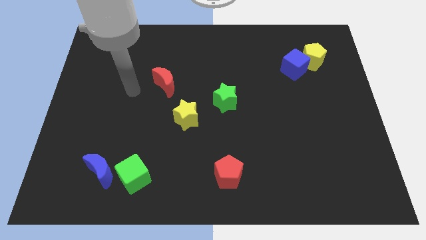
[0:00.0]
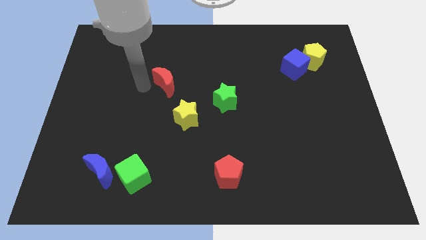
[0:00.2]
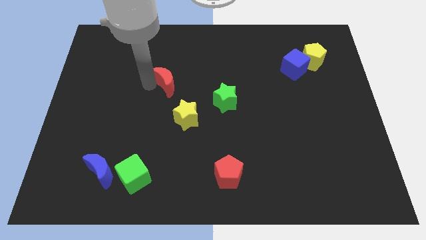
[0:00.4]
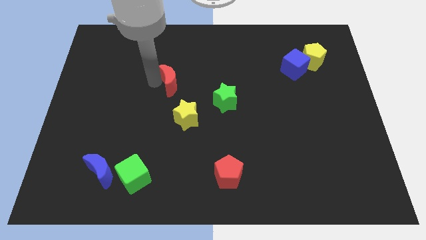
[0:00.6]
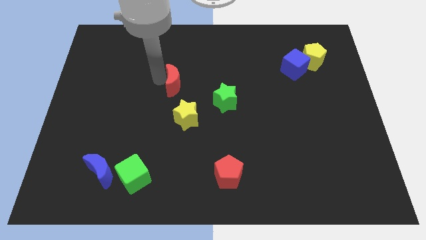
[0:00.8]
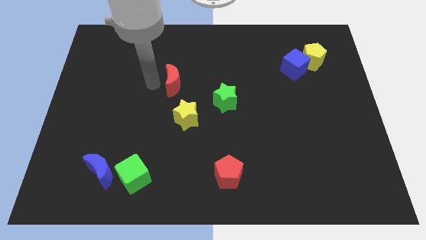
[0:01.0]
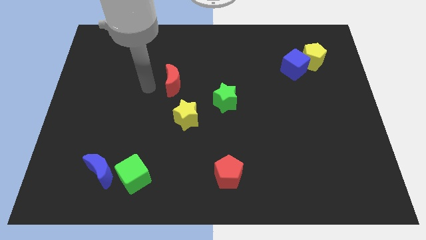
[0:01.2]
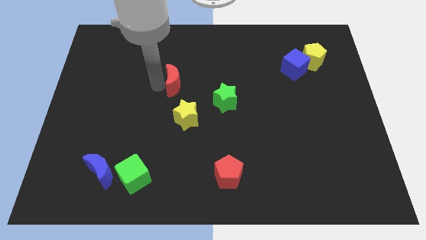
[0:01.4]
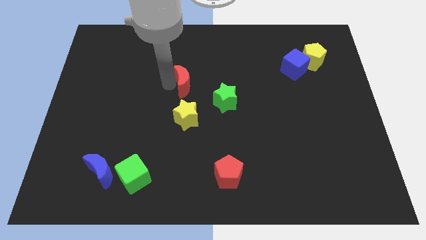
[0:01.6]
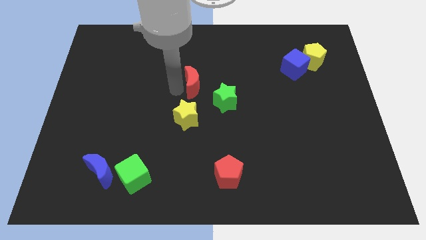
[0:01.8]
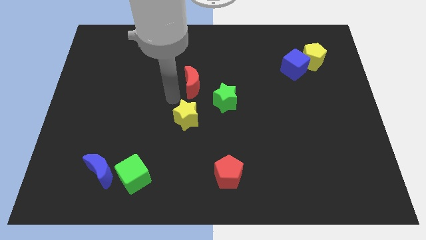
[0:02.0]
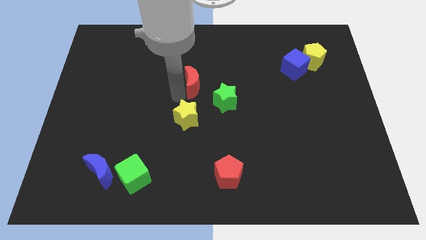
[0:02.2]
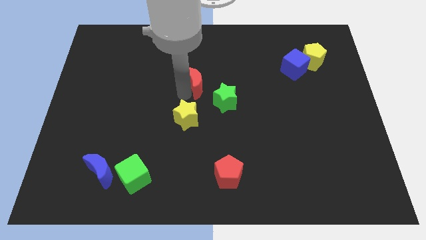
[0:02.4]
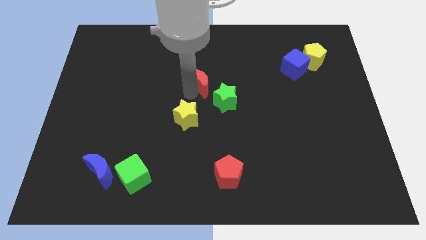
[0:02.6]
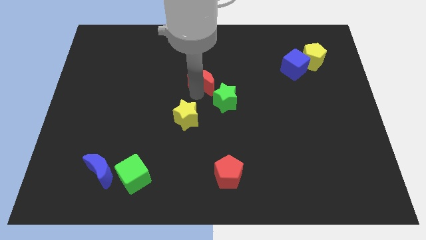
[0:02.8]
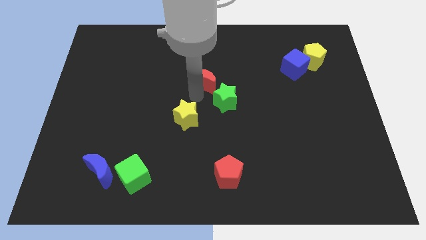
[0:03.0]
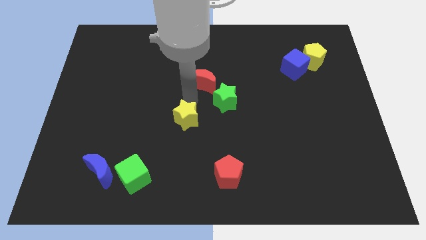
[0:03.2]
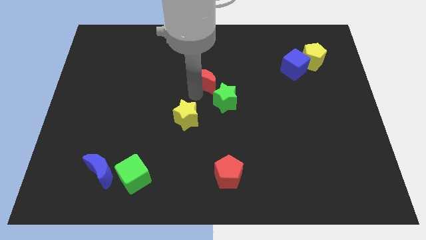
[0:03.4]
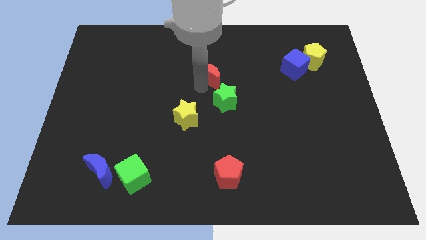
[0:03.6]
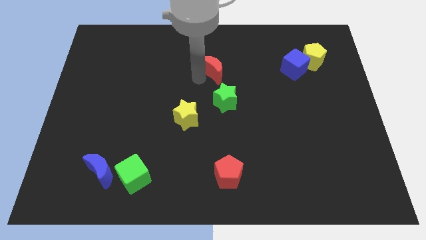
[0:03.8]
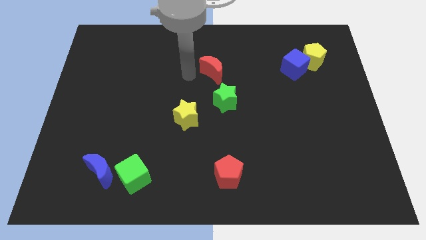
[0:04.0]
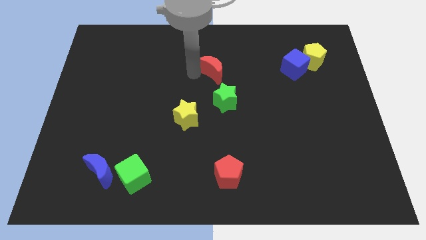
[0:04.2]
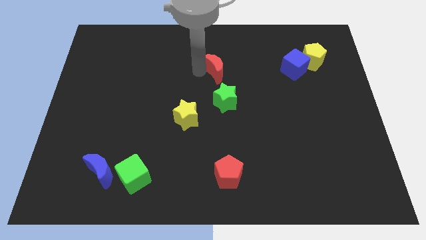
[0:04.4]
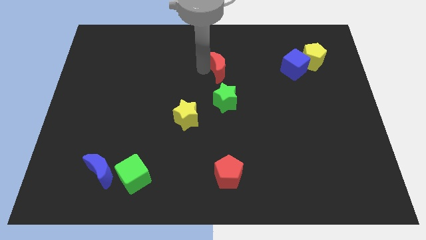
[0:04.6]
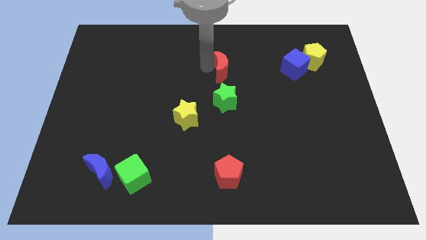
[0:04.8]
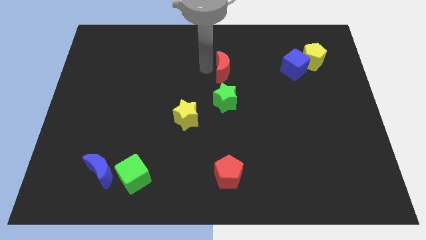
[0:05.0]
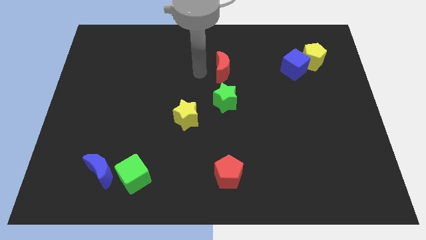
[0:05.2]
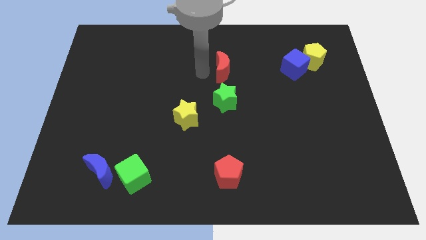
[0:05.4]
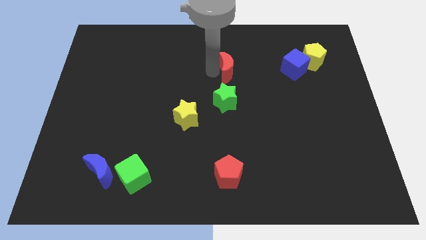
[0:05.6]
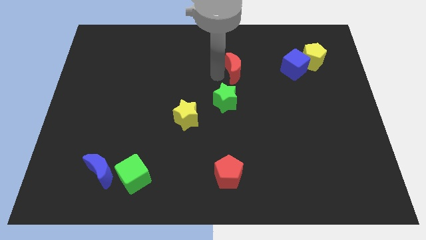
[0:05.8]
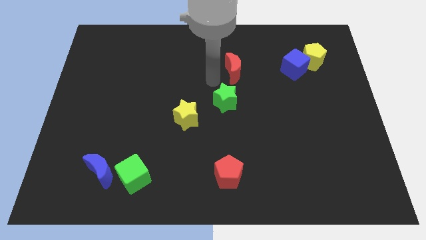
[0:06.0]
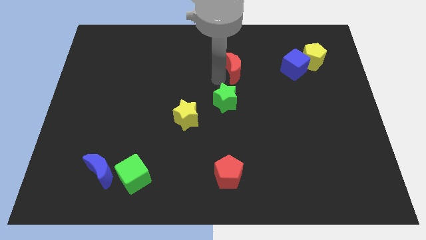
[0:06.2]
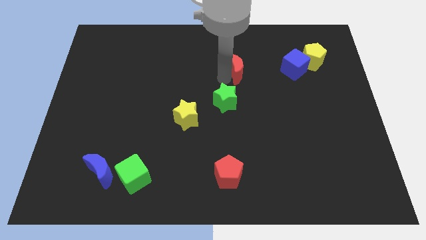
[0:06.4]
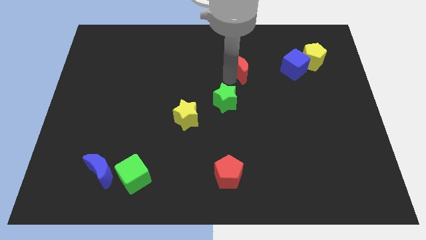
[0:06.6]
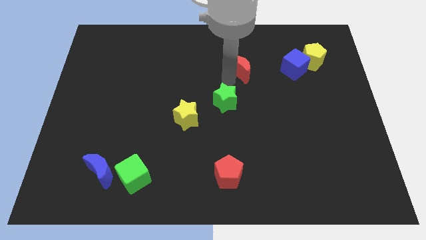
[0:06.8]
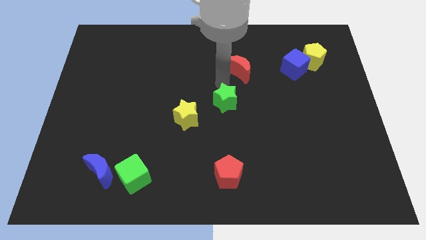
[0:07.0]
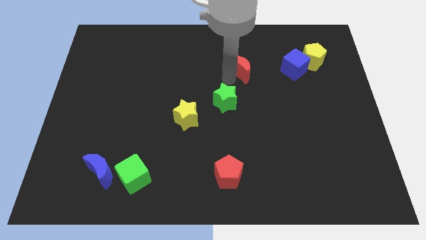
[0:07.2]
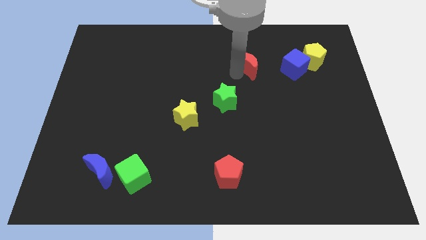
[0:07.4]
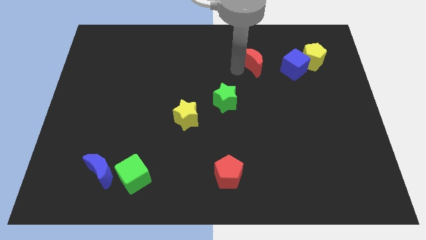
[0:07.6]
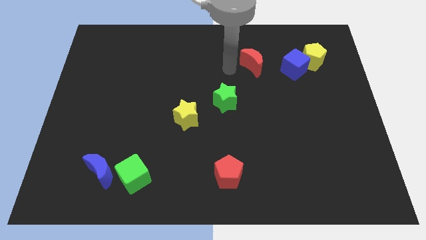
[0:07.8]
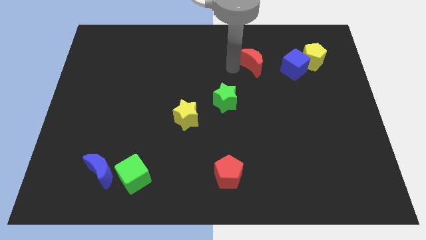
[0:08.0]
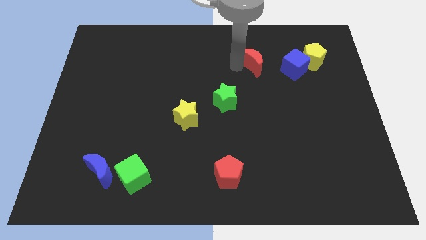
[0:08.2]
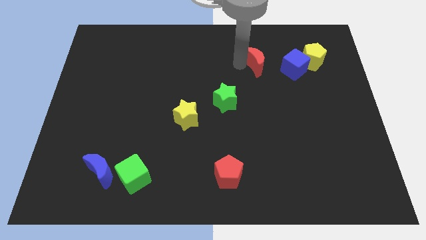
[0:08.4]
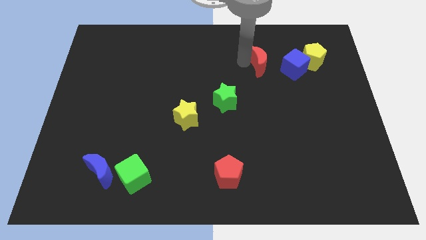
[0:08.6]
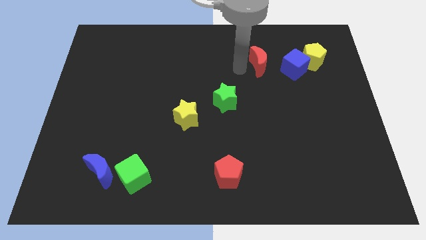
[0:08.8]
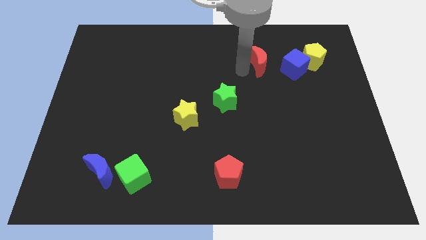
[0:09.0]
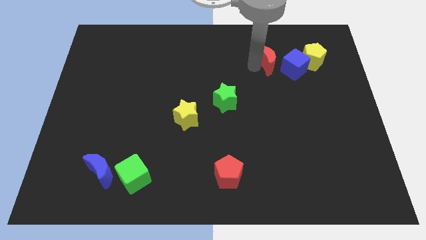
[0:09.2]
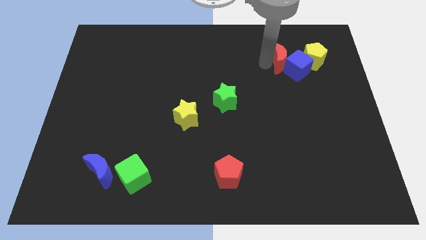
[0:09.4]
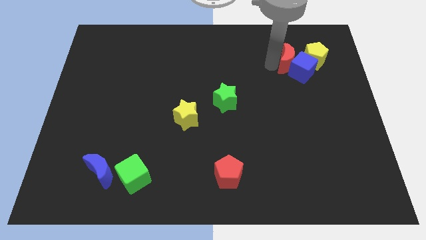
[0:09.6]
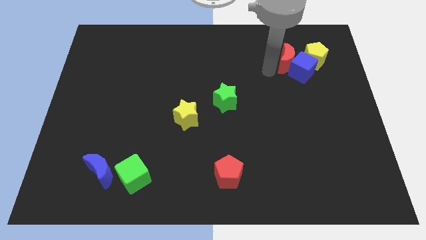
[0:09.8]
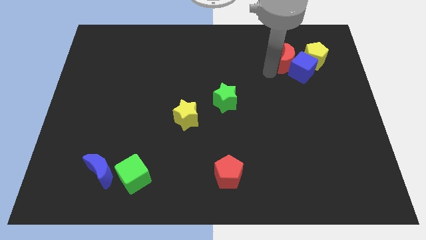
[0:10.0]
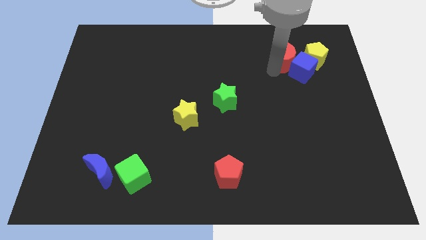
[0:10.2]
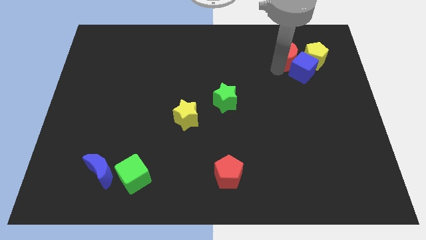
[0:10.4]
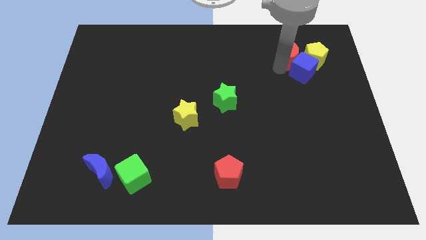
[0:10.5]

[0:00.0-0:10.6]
put the red moon towards the yellow pentagon

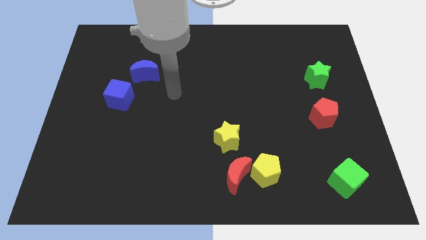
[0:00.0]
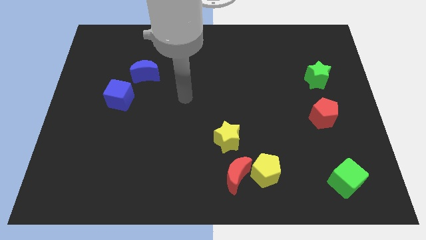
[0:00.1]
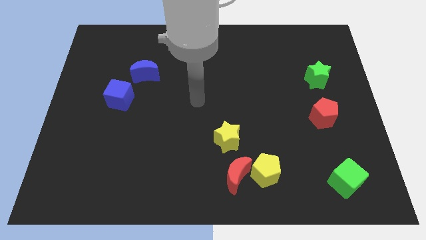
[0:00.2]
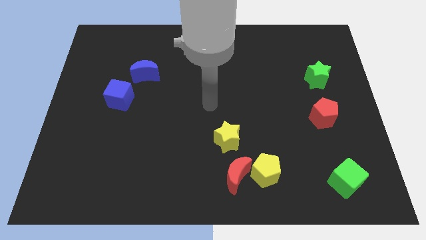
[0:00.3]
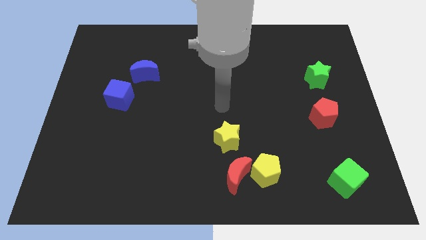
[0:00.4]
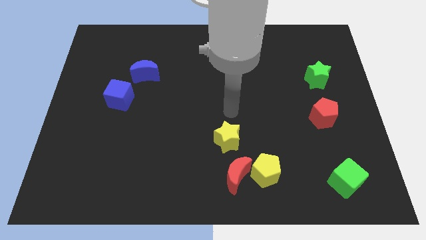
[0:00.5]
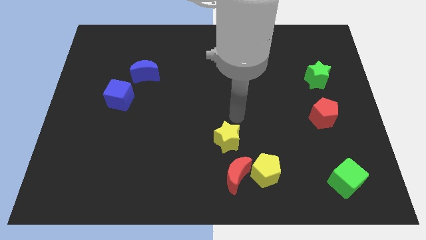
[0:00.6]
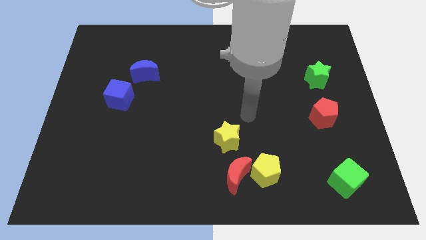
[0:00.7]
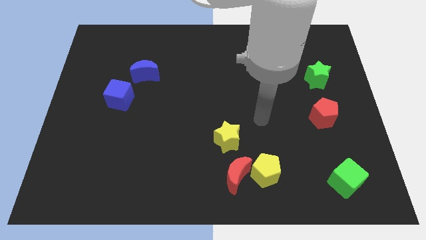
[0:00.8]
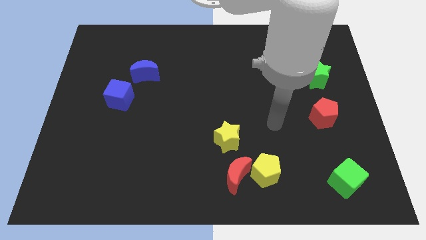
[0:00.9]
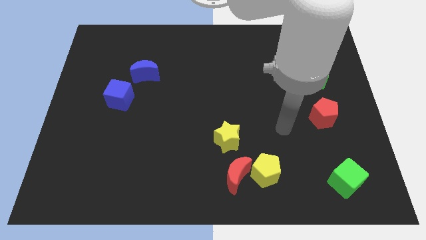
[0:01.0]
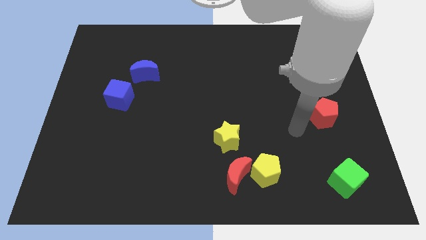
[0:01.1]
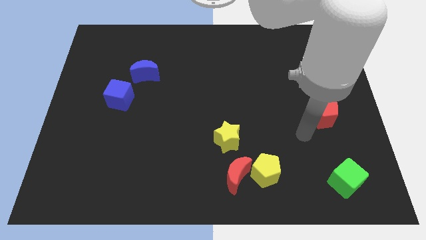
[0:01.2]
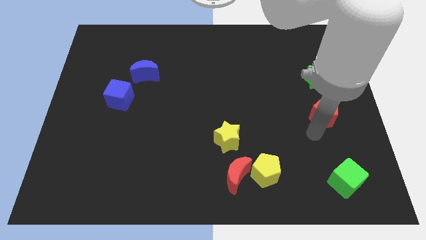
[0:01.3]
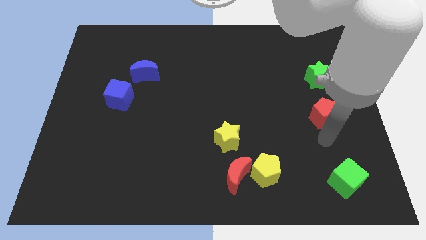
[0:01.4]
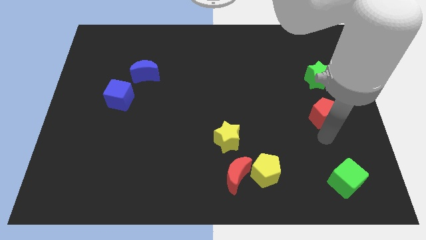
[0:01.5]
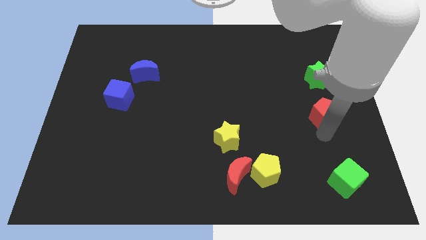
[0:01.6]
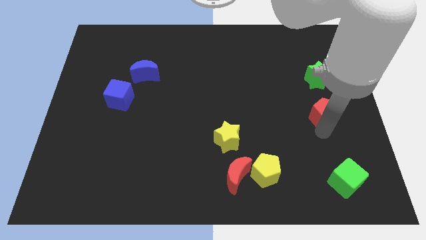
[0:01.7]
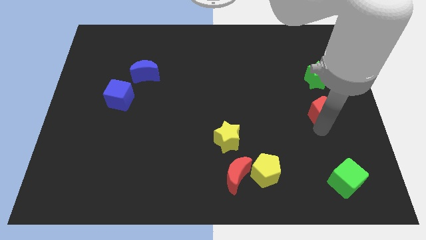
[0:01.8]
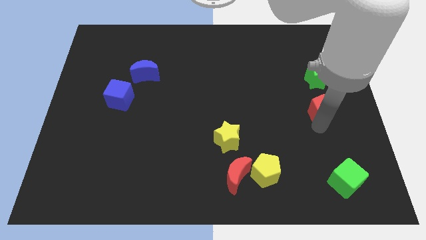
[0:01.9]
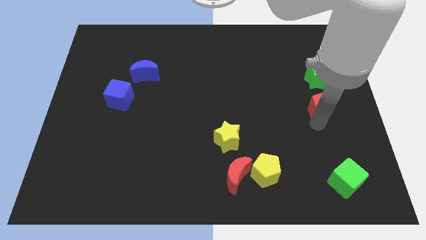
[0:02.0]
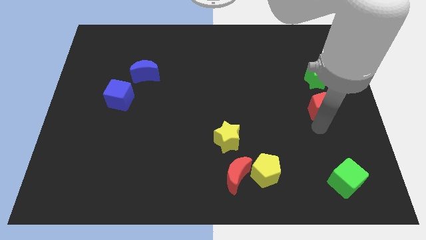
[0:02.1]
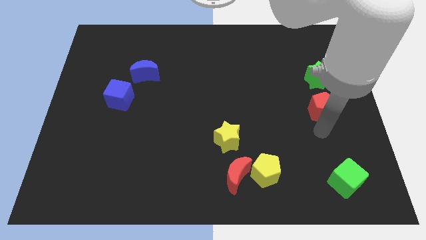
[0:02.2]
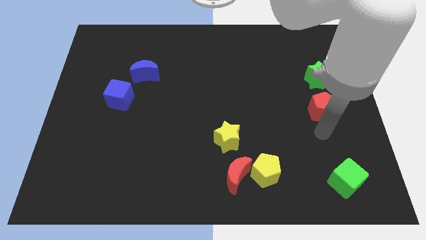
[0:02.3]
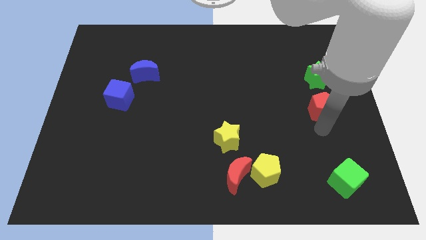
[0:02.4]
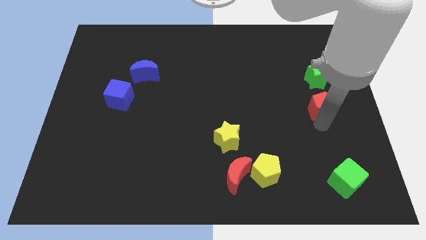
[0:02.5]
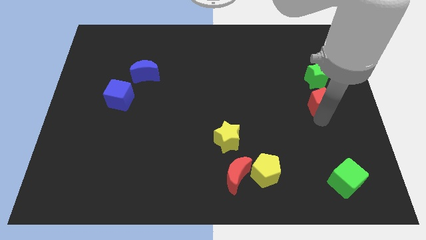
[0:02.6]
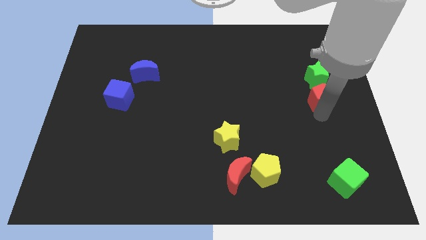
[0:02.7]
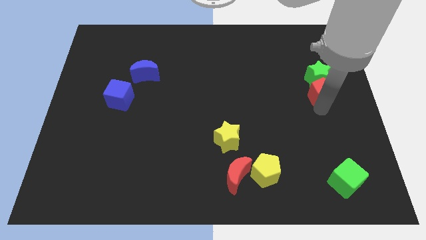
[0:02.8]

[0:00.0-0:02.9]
move the red pentagon towards the green star
